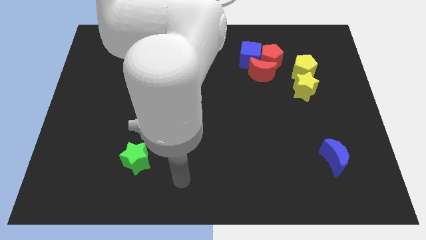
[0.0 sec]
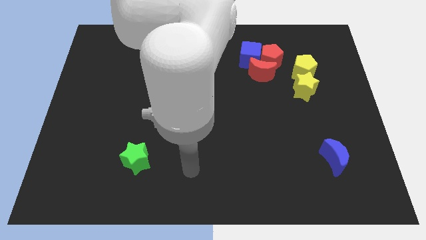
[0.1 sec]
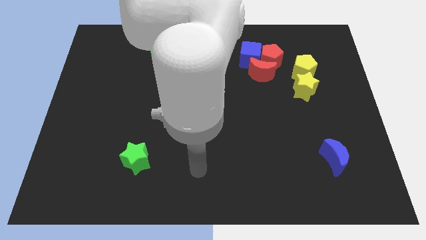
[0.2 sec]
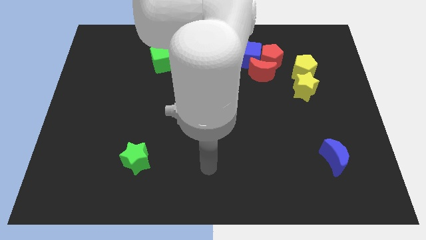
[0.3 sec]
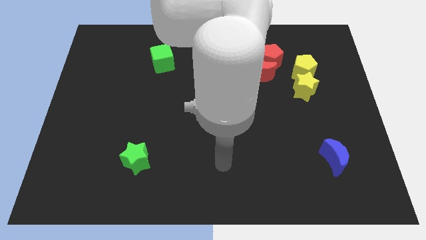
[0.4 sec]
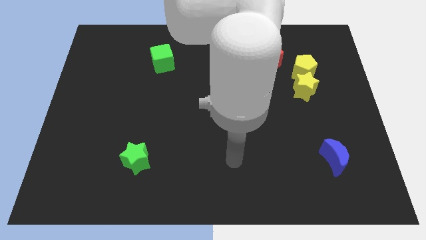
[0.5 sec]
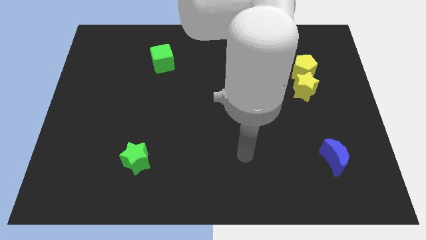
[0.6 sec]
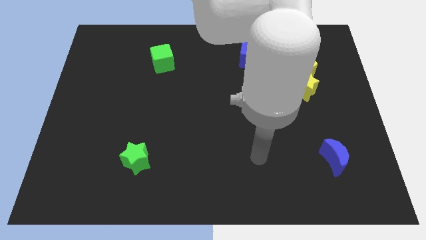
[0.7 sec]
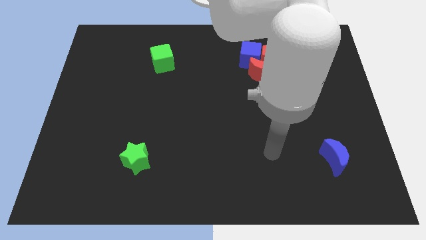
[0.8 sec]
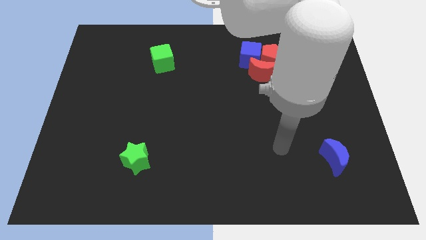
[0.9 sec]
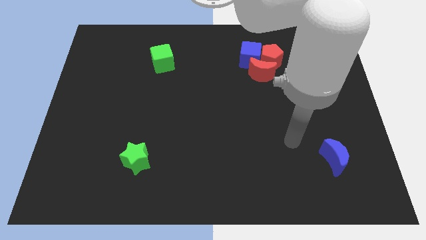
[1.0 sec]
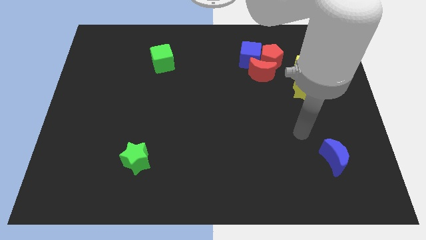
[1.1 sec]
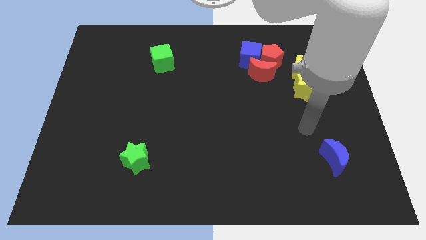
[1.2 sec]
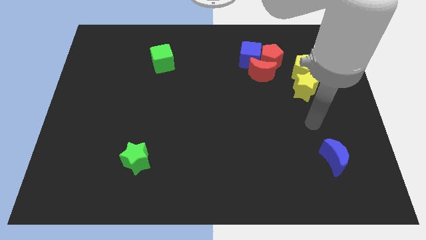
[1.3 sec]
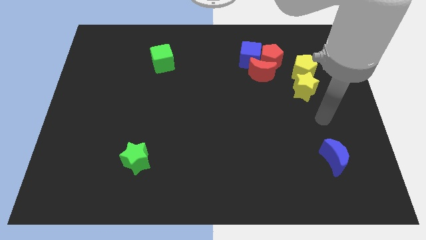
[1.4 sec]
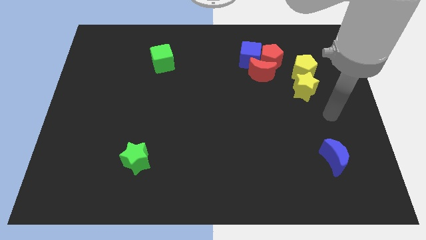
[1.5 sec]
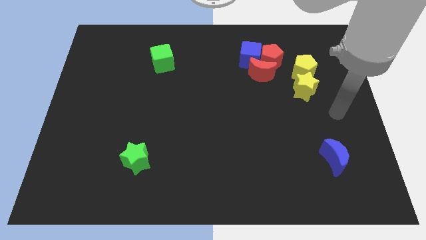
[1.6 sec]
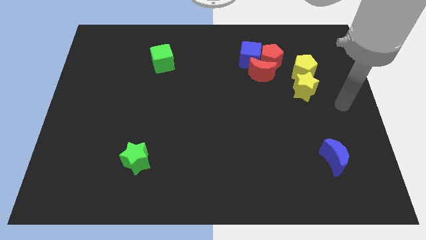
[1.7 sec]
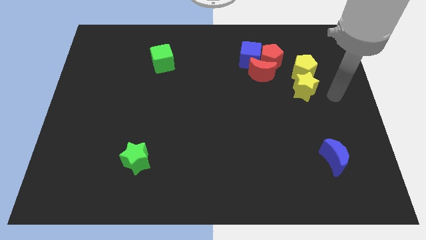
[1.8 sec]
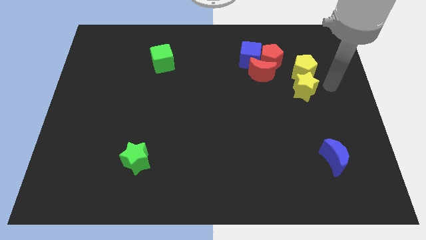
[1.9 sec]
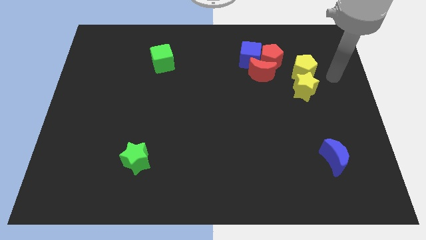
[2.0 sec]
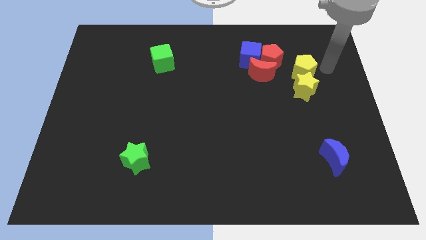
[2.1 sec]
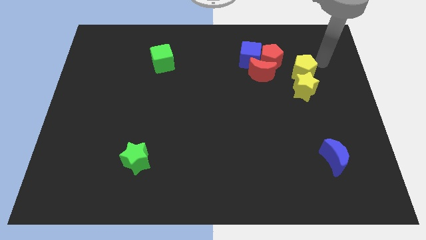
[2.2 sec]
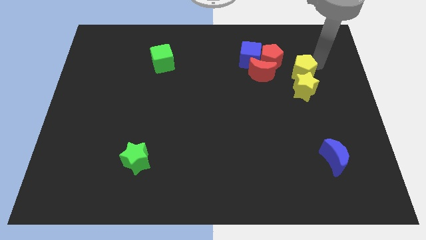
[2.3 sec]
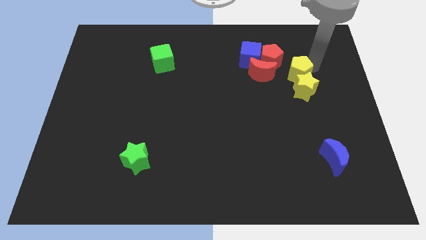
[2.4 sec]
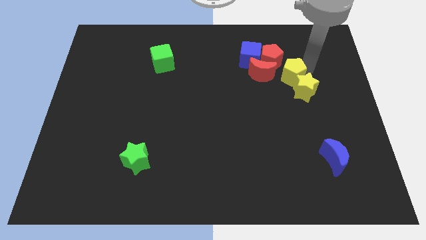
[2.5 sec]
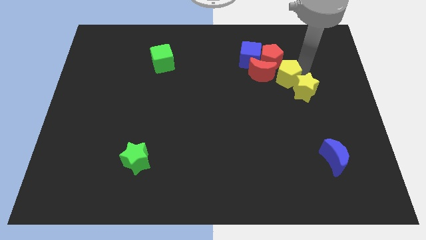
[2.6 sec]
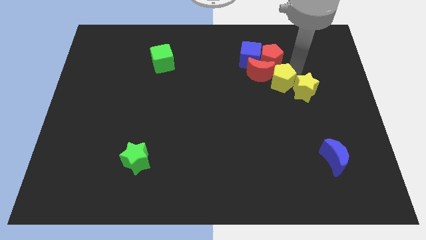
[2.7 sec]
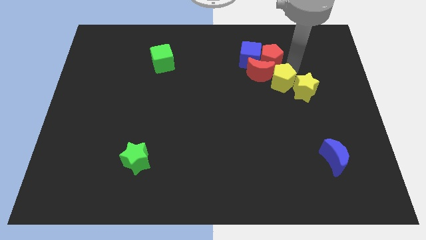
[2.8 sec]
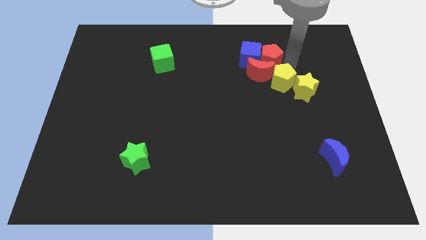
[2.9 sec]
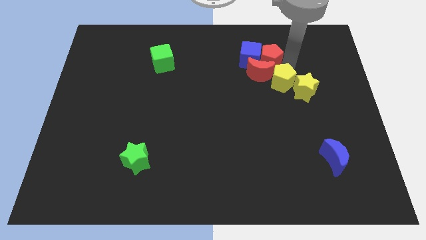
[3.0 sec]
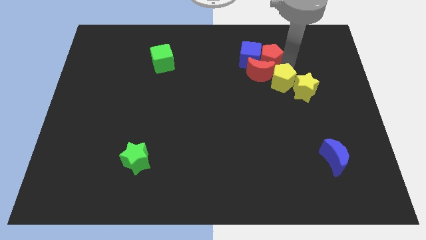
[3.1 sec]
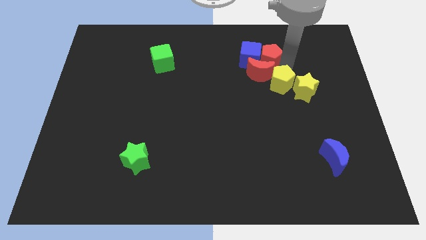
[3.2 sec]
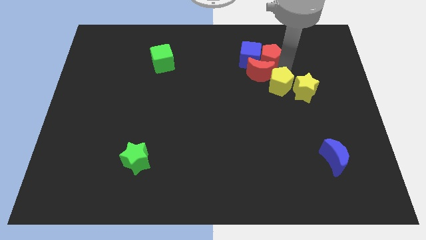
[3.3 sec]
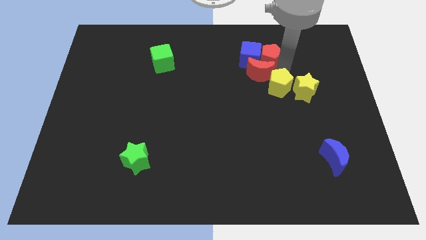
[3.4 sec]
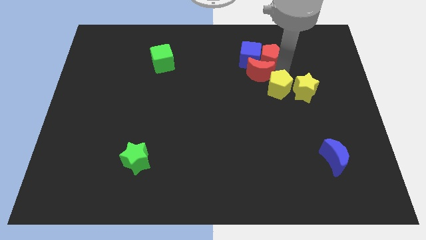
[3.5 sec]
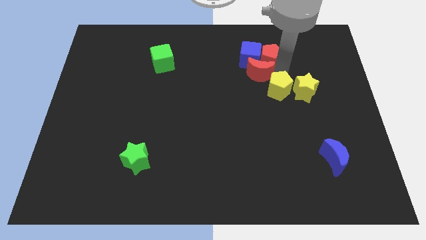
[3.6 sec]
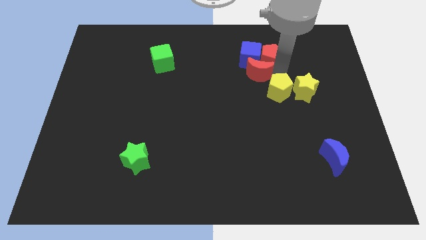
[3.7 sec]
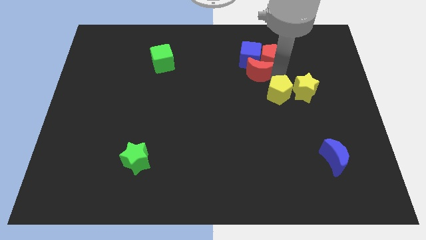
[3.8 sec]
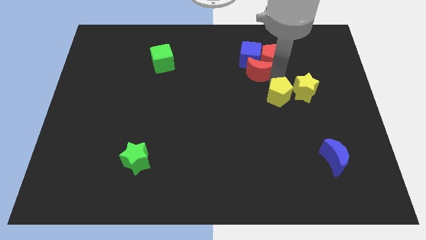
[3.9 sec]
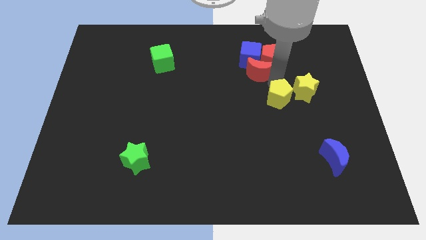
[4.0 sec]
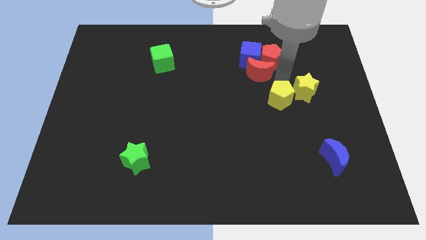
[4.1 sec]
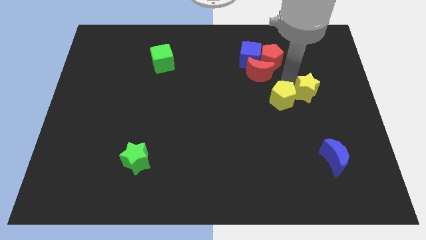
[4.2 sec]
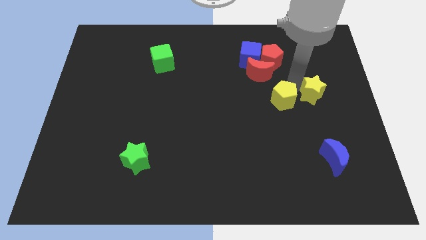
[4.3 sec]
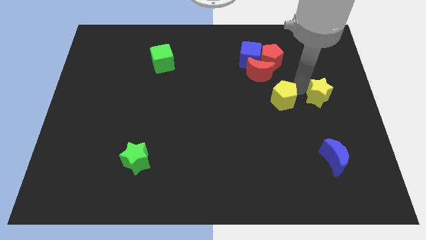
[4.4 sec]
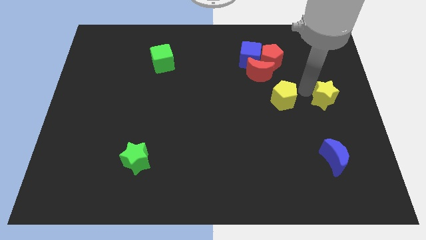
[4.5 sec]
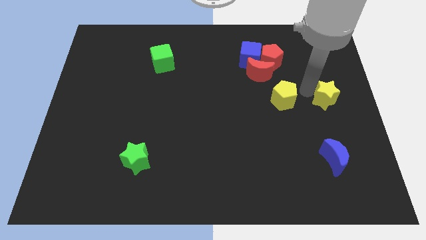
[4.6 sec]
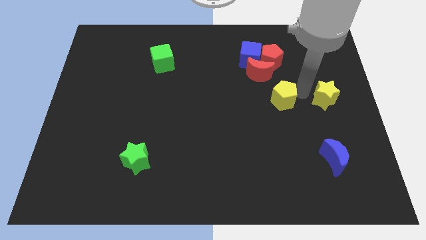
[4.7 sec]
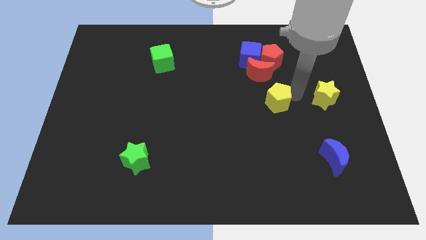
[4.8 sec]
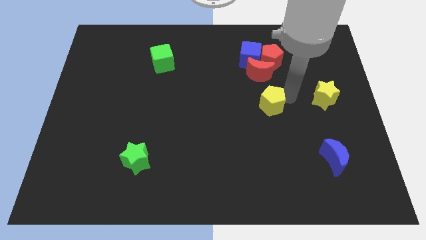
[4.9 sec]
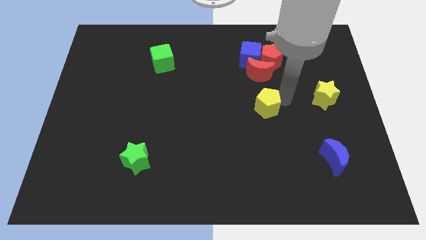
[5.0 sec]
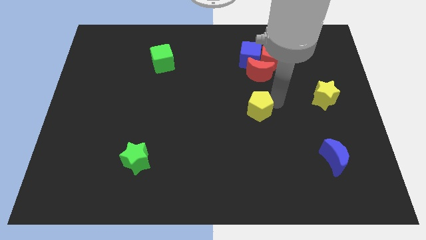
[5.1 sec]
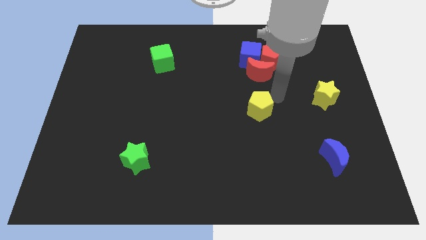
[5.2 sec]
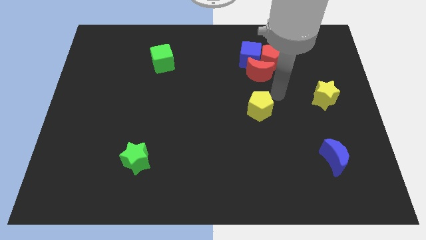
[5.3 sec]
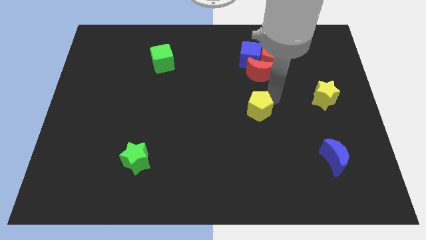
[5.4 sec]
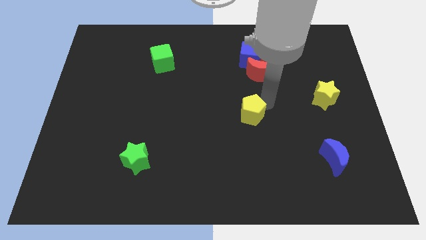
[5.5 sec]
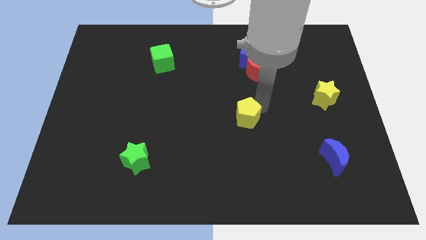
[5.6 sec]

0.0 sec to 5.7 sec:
push the yellow pentagon down and then to the left

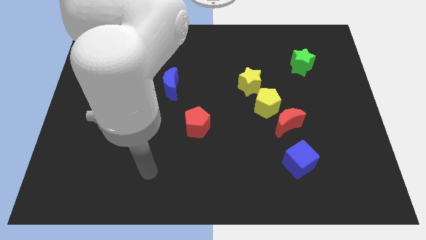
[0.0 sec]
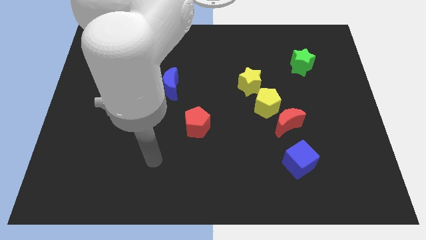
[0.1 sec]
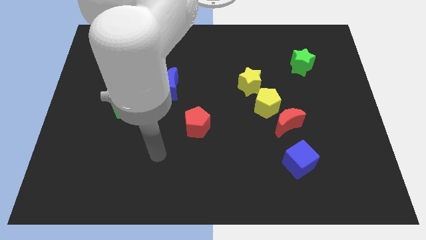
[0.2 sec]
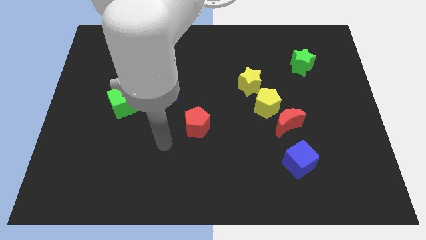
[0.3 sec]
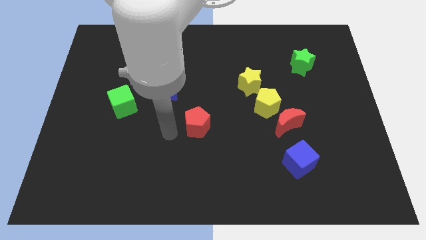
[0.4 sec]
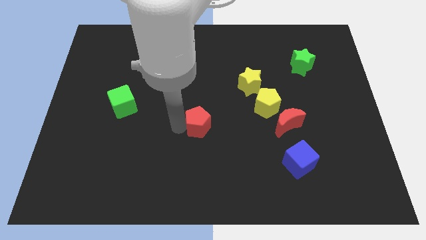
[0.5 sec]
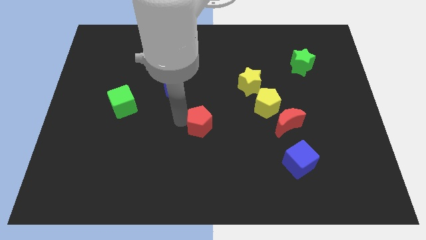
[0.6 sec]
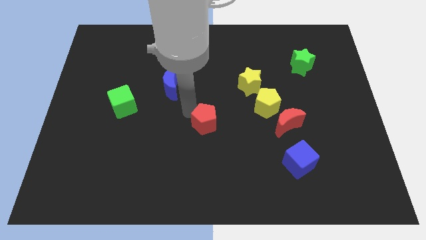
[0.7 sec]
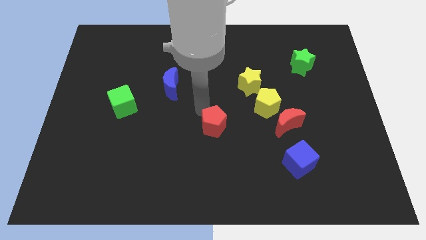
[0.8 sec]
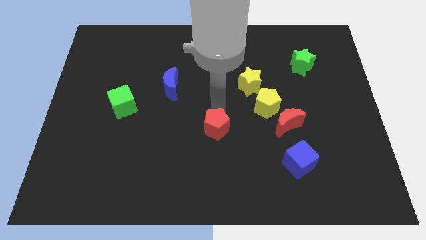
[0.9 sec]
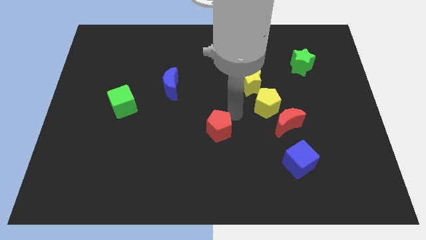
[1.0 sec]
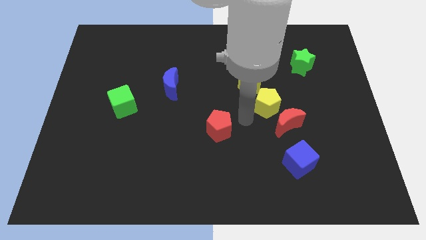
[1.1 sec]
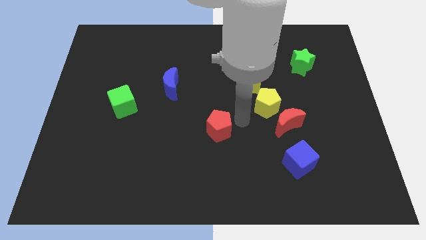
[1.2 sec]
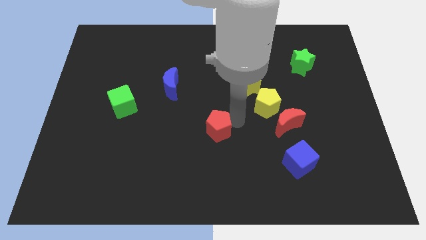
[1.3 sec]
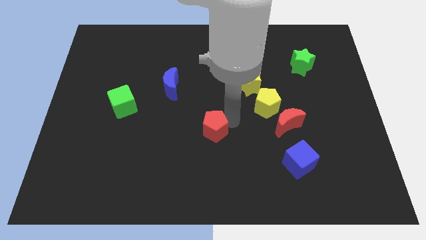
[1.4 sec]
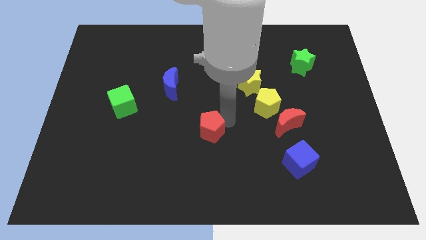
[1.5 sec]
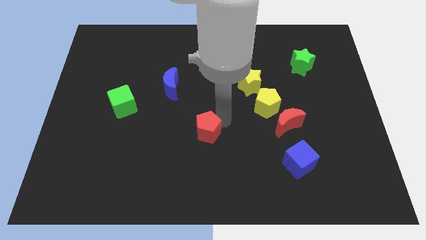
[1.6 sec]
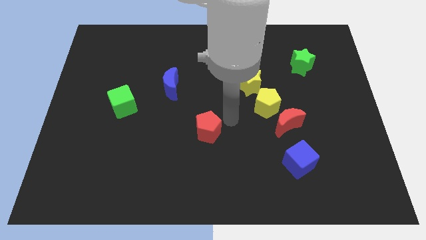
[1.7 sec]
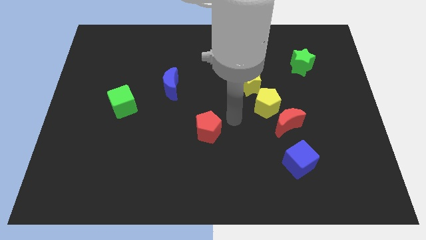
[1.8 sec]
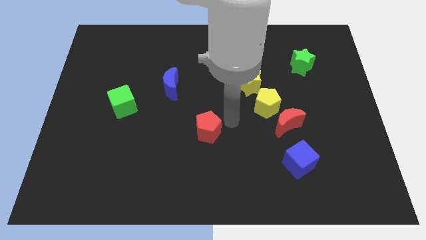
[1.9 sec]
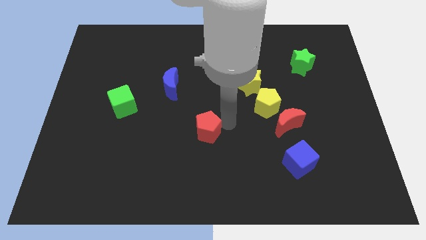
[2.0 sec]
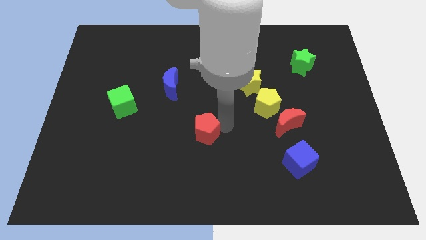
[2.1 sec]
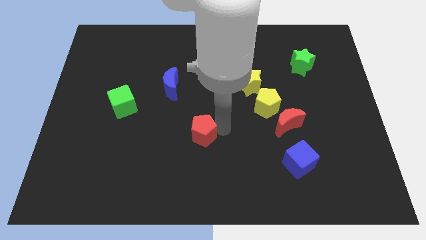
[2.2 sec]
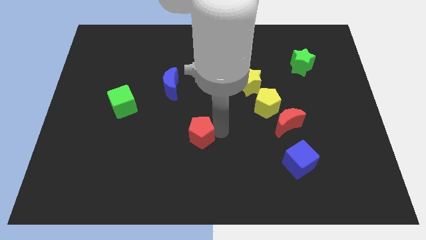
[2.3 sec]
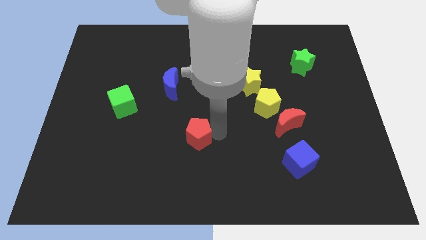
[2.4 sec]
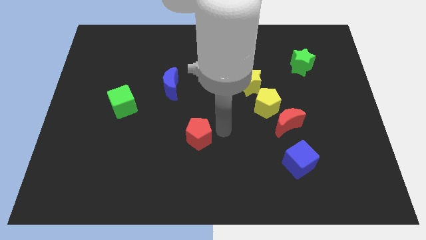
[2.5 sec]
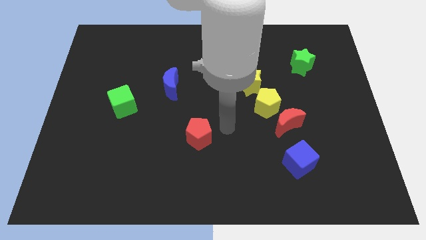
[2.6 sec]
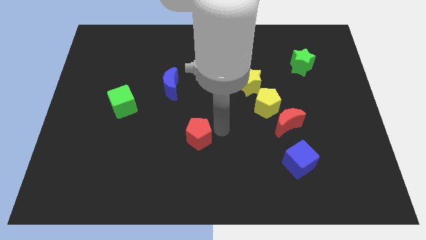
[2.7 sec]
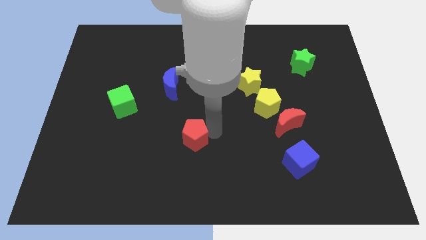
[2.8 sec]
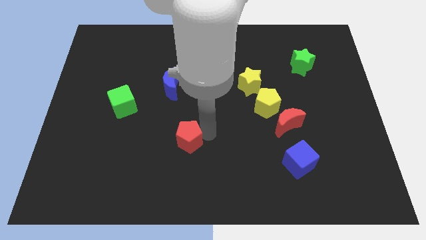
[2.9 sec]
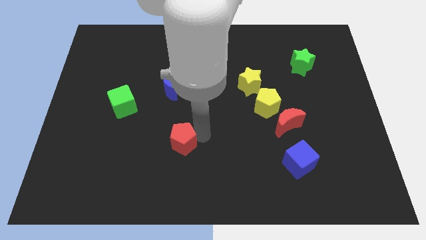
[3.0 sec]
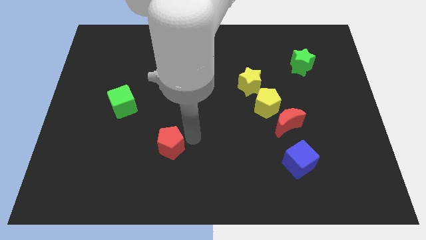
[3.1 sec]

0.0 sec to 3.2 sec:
slightly move the red pentagon downwards and then left
